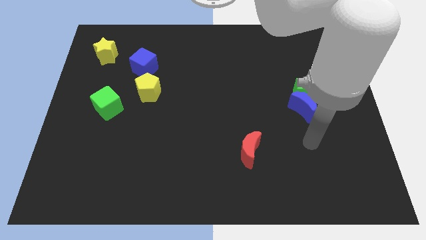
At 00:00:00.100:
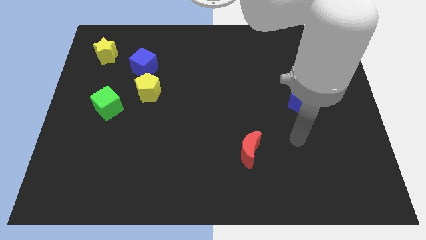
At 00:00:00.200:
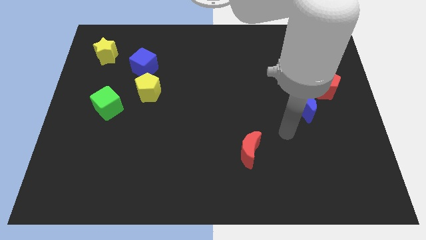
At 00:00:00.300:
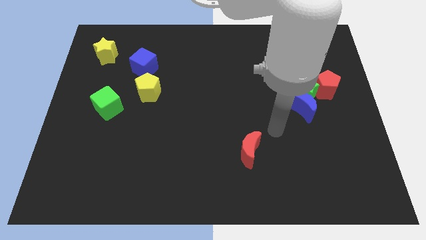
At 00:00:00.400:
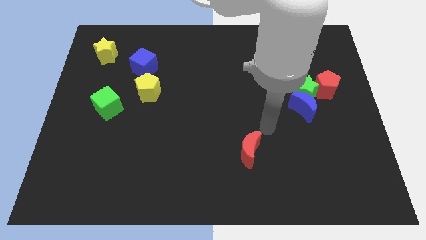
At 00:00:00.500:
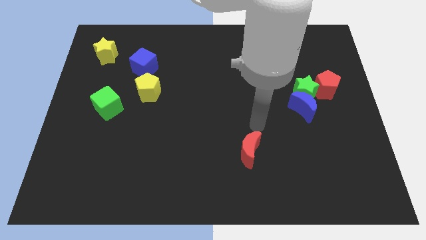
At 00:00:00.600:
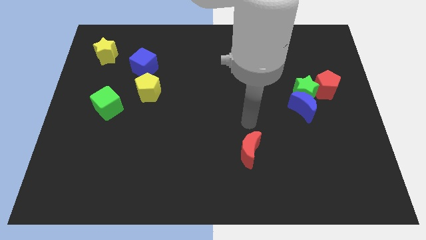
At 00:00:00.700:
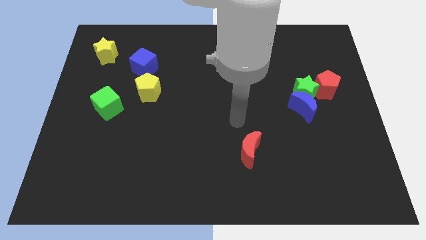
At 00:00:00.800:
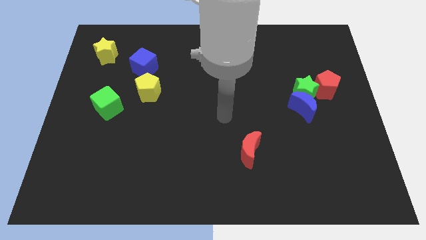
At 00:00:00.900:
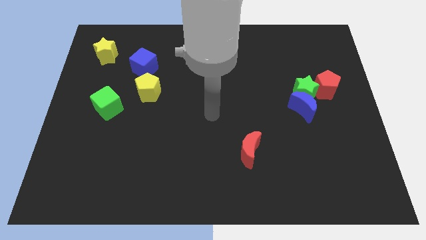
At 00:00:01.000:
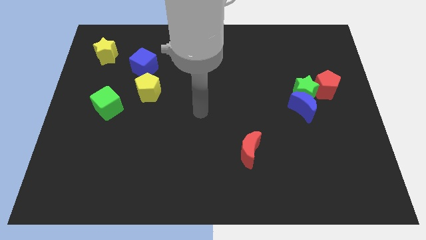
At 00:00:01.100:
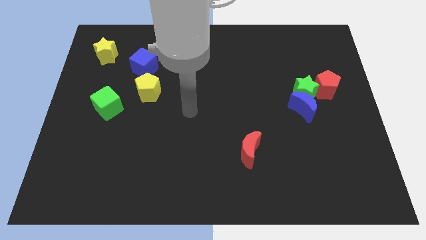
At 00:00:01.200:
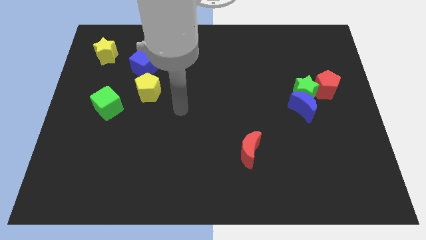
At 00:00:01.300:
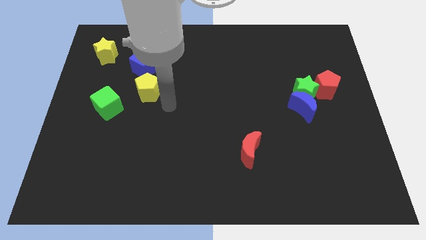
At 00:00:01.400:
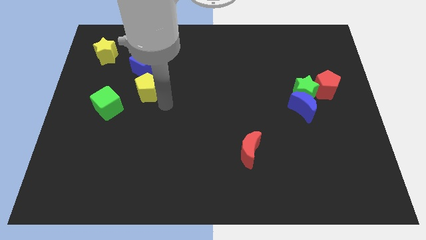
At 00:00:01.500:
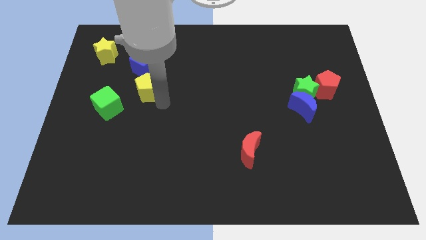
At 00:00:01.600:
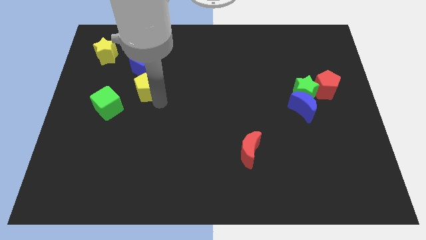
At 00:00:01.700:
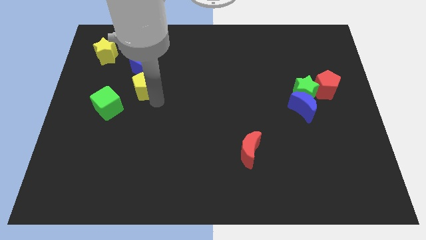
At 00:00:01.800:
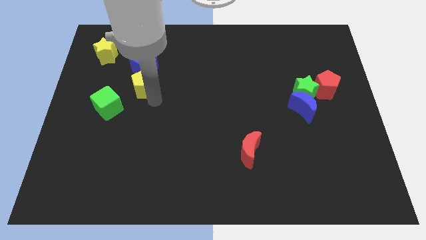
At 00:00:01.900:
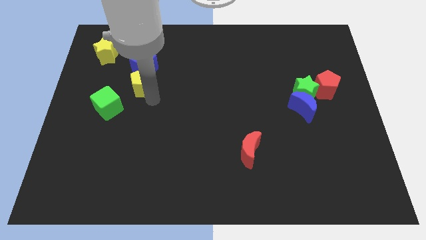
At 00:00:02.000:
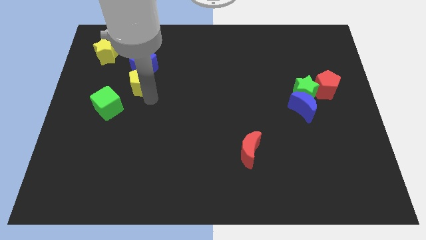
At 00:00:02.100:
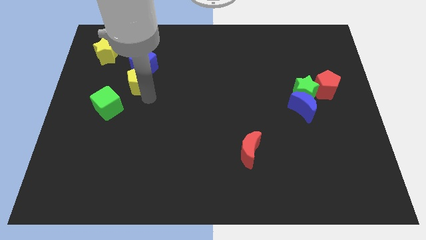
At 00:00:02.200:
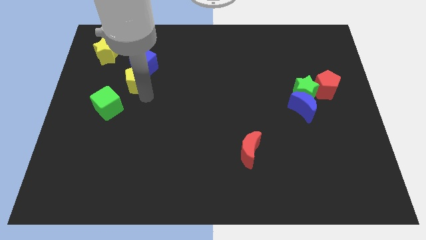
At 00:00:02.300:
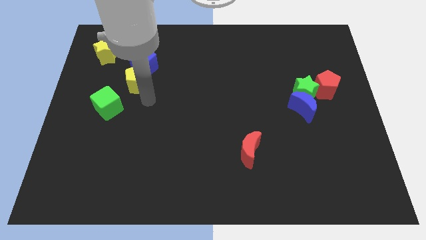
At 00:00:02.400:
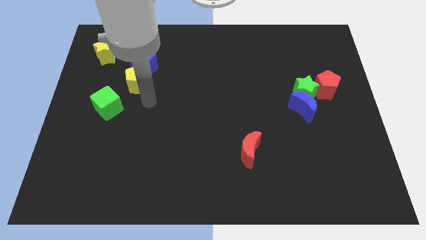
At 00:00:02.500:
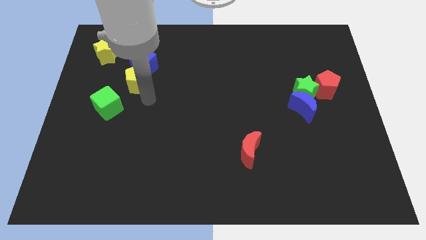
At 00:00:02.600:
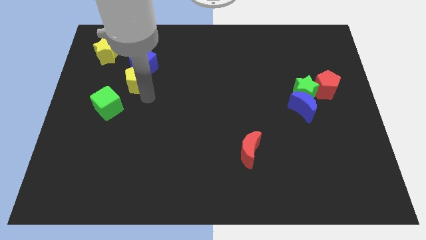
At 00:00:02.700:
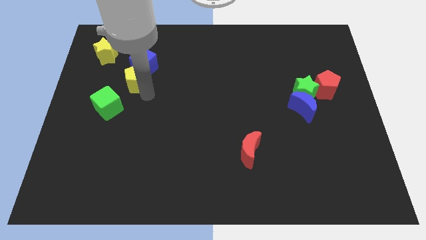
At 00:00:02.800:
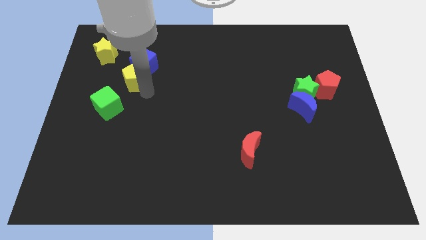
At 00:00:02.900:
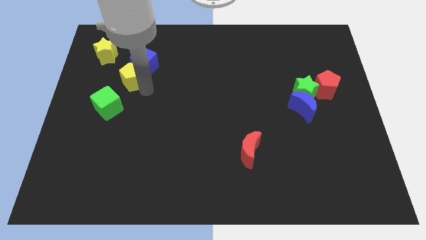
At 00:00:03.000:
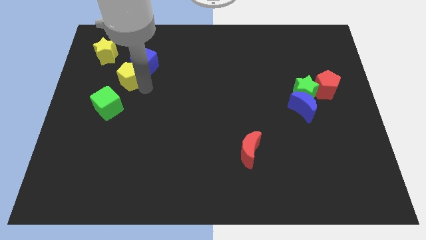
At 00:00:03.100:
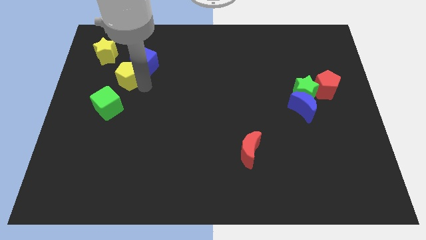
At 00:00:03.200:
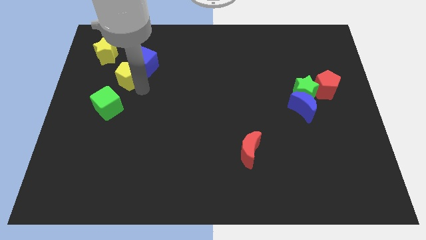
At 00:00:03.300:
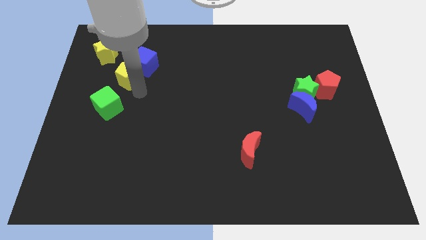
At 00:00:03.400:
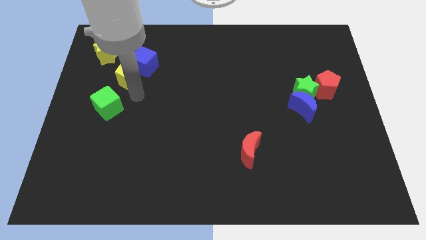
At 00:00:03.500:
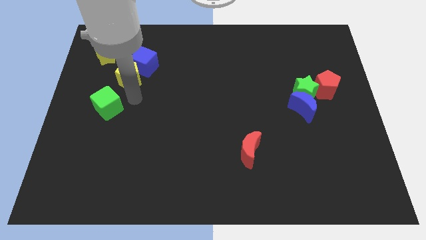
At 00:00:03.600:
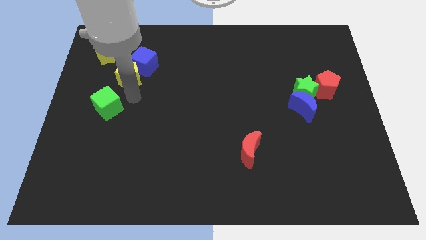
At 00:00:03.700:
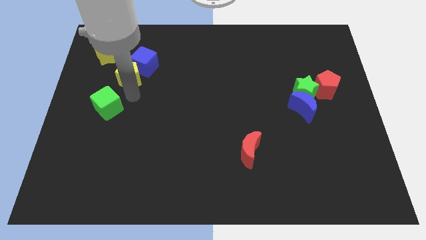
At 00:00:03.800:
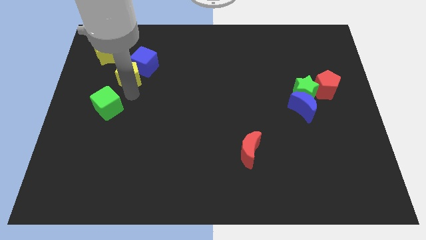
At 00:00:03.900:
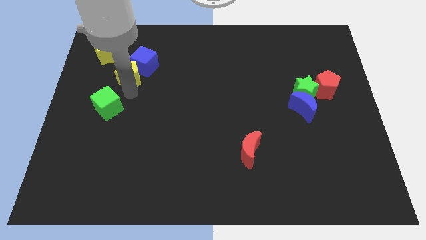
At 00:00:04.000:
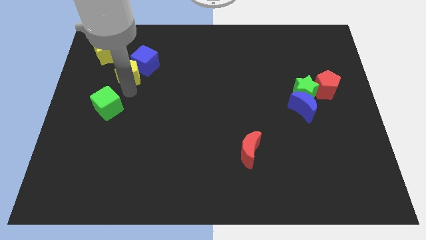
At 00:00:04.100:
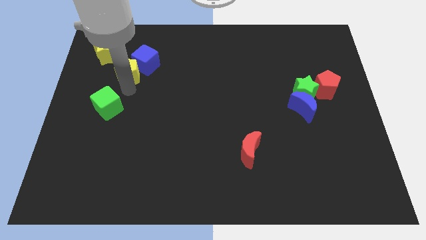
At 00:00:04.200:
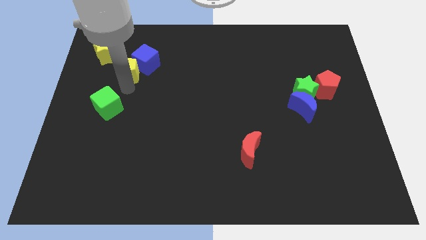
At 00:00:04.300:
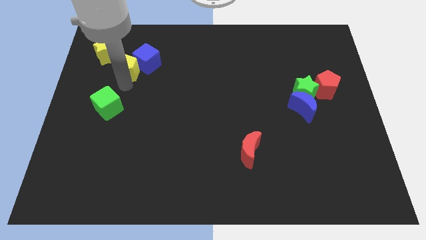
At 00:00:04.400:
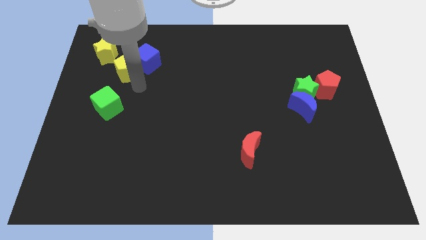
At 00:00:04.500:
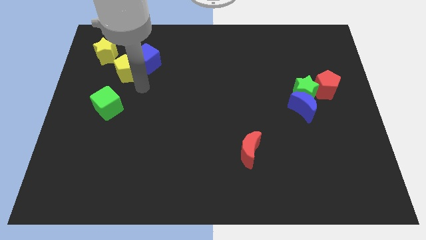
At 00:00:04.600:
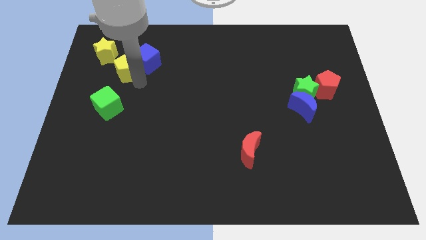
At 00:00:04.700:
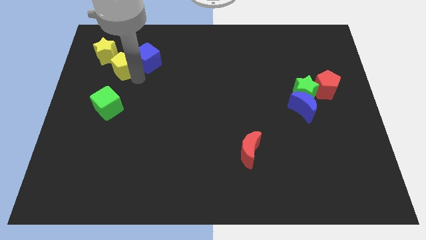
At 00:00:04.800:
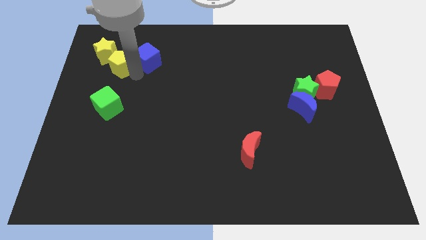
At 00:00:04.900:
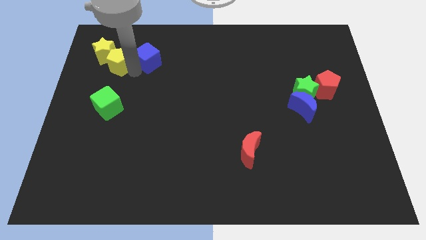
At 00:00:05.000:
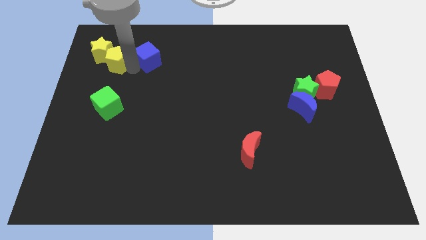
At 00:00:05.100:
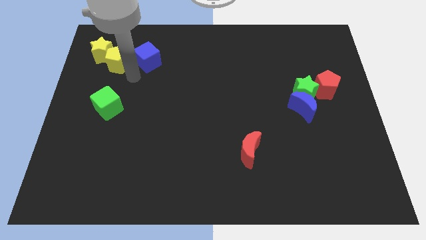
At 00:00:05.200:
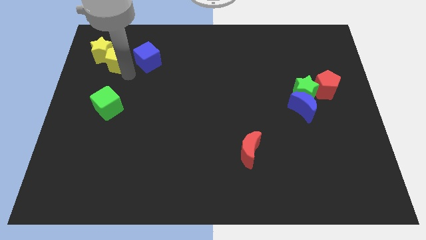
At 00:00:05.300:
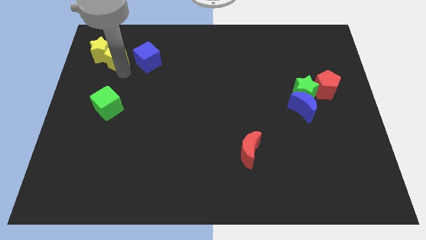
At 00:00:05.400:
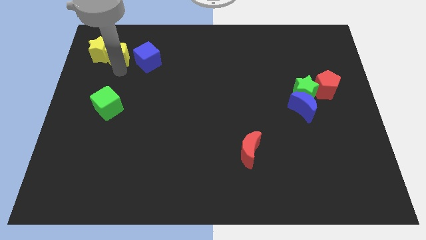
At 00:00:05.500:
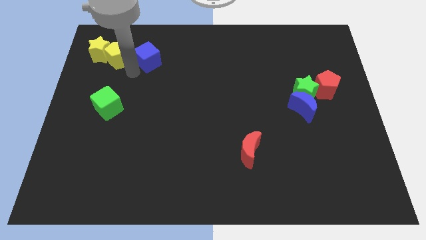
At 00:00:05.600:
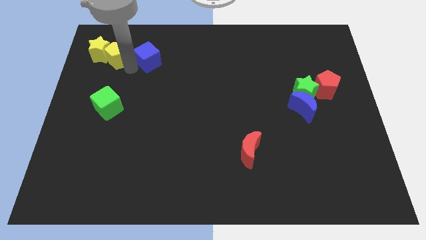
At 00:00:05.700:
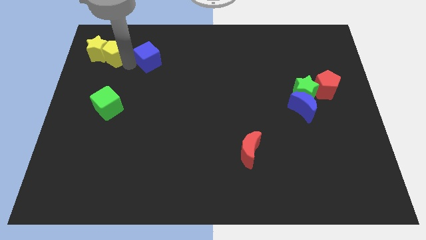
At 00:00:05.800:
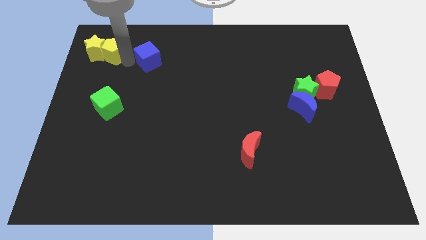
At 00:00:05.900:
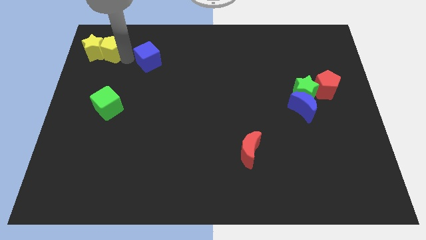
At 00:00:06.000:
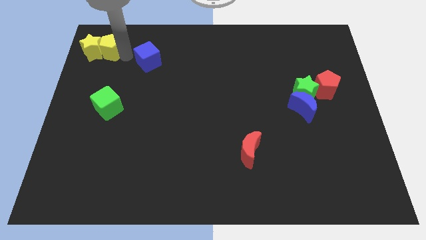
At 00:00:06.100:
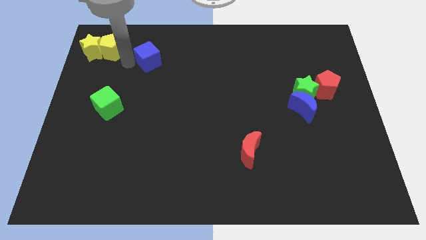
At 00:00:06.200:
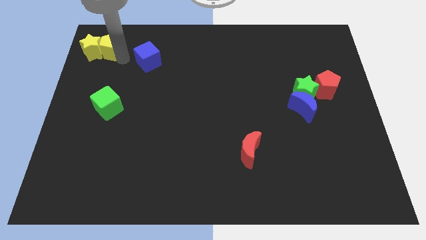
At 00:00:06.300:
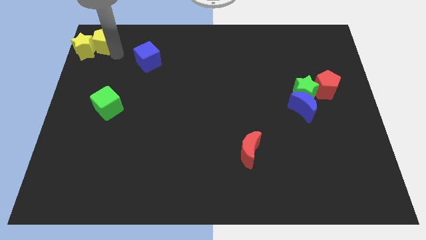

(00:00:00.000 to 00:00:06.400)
slide the yellow pentagon to the upper left corner

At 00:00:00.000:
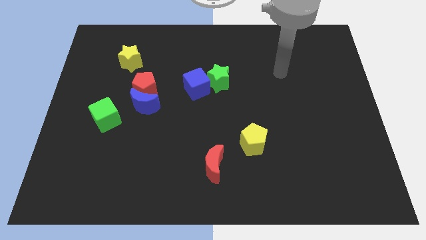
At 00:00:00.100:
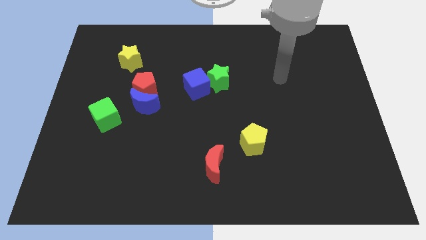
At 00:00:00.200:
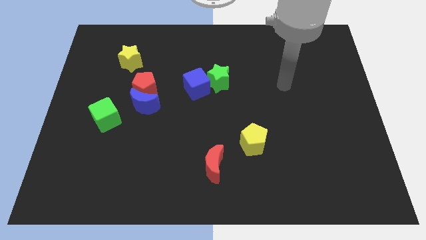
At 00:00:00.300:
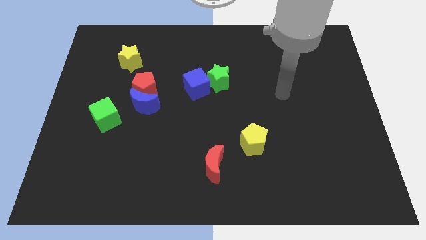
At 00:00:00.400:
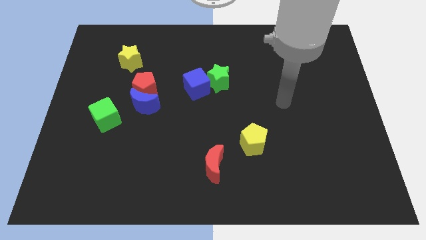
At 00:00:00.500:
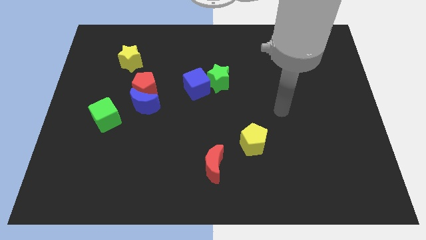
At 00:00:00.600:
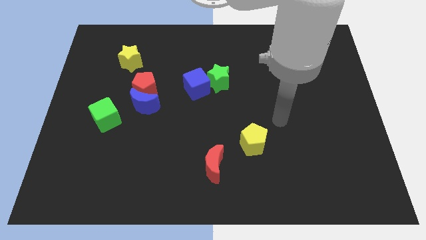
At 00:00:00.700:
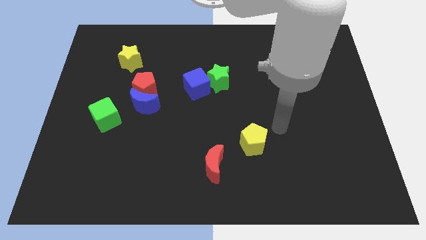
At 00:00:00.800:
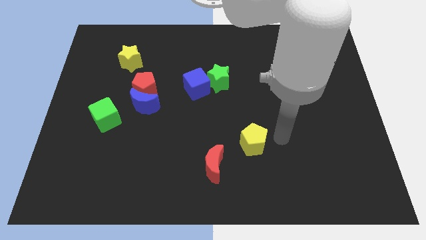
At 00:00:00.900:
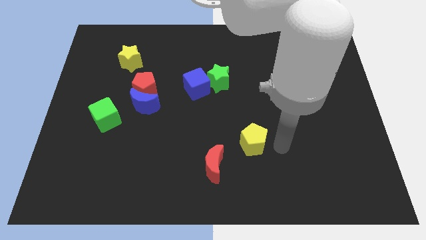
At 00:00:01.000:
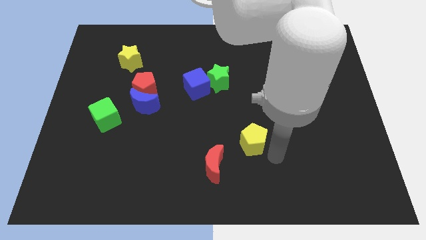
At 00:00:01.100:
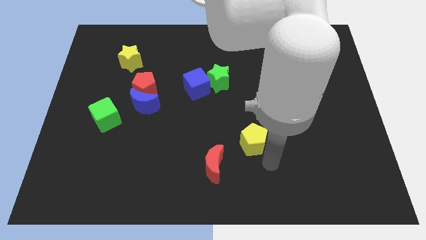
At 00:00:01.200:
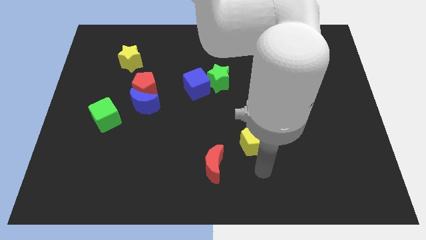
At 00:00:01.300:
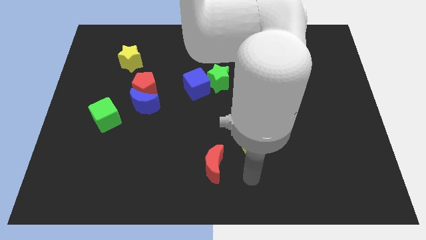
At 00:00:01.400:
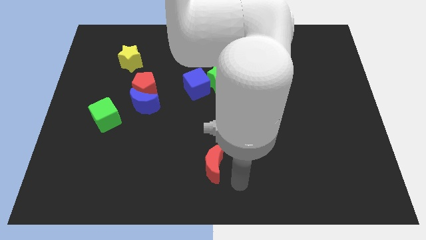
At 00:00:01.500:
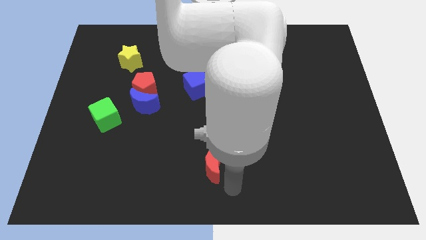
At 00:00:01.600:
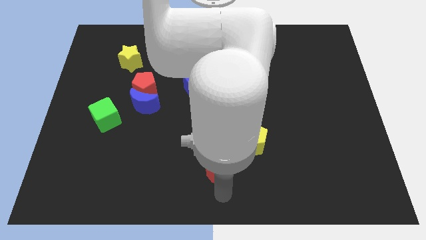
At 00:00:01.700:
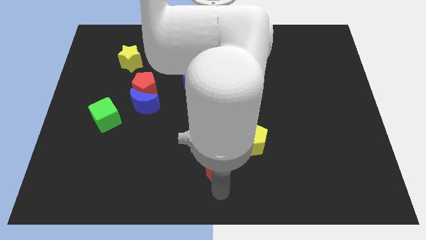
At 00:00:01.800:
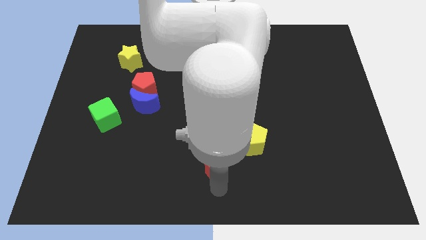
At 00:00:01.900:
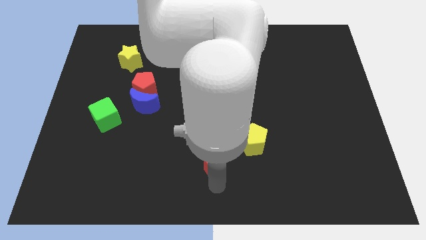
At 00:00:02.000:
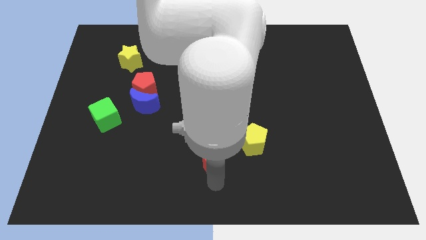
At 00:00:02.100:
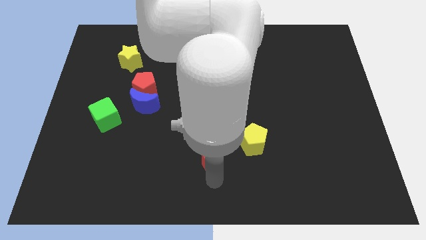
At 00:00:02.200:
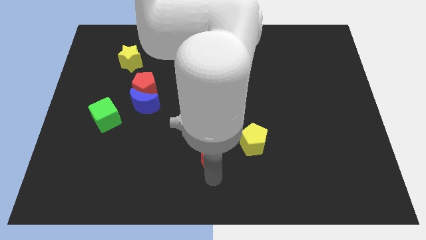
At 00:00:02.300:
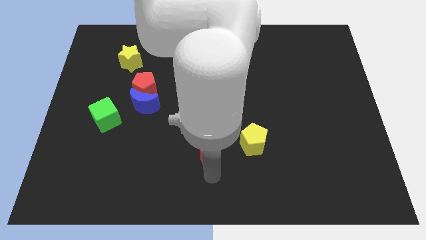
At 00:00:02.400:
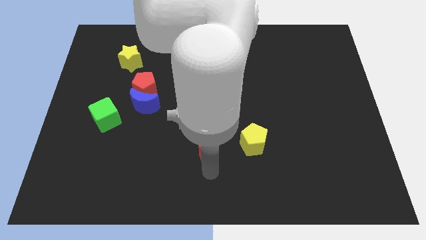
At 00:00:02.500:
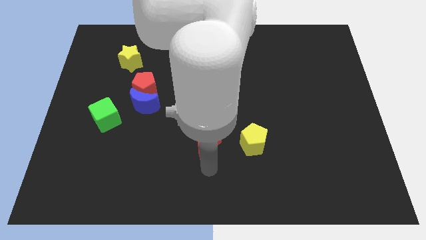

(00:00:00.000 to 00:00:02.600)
slide the red moon to the center of the board
